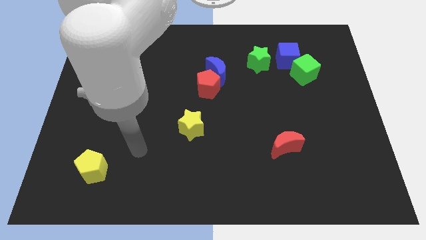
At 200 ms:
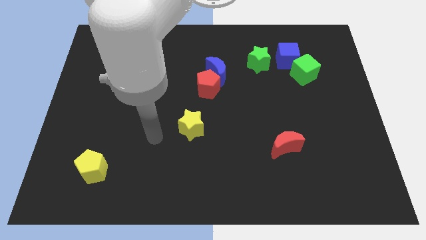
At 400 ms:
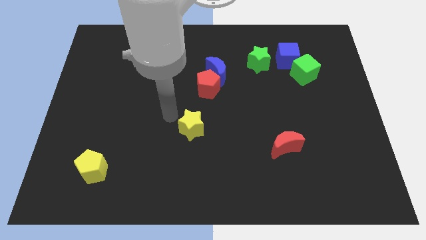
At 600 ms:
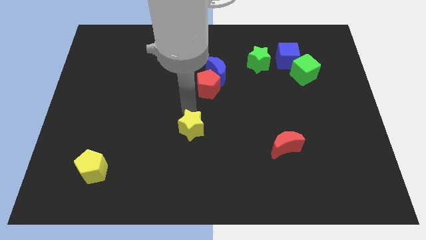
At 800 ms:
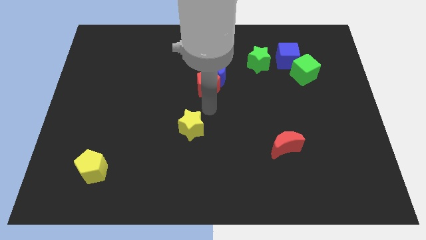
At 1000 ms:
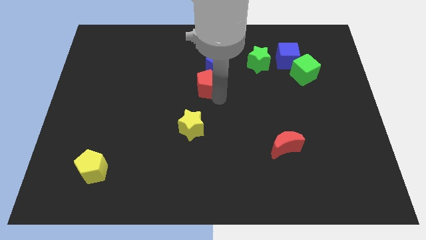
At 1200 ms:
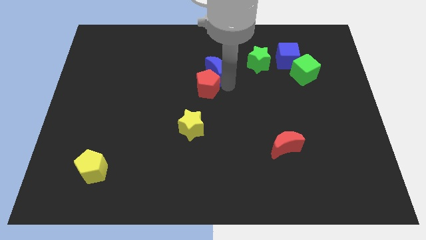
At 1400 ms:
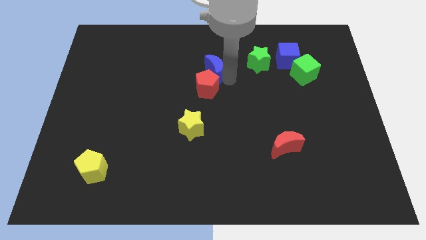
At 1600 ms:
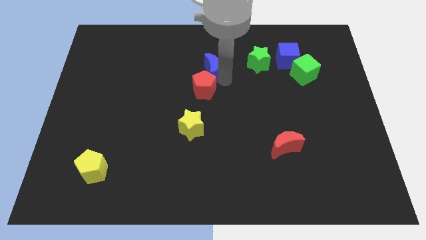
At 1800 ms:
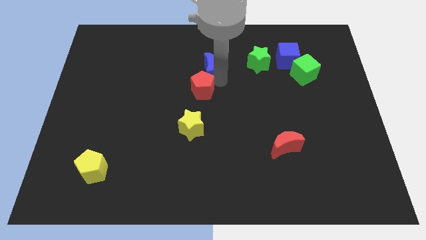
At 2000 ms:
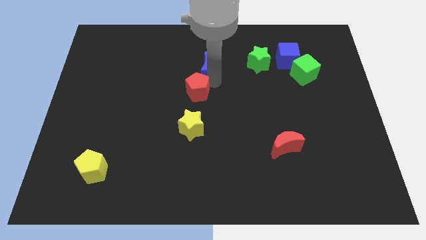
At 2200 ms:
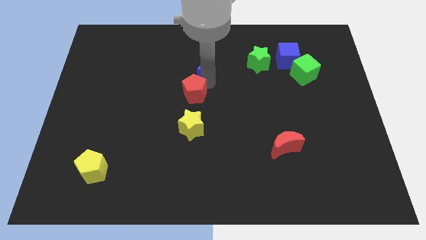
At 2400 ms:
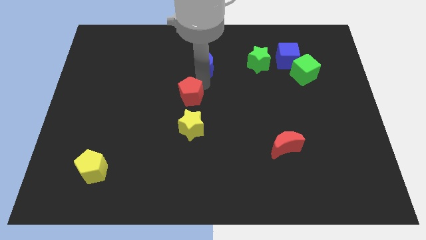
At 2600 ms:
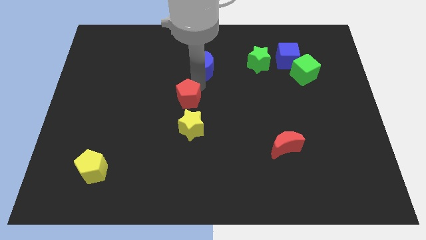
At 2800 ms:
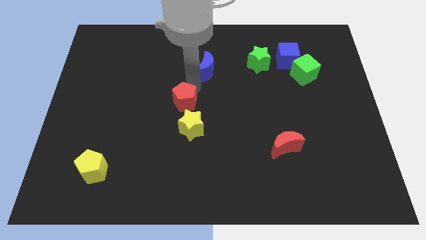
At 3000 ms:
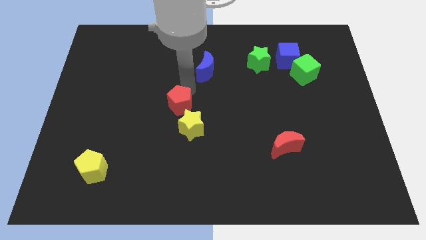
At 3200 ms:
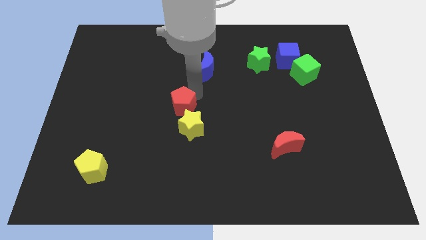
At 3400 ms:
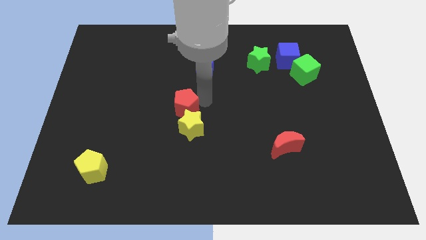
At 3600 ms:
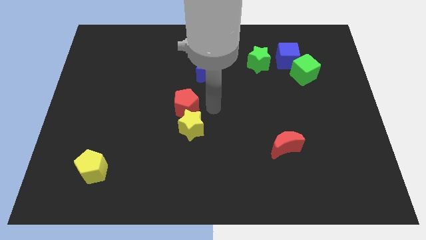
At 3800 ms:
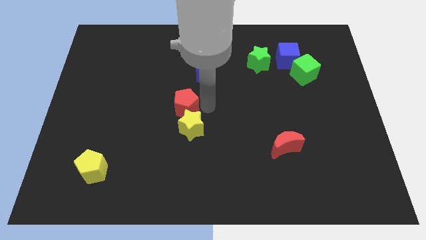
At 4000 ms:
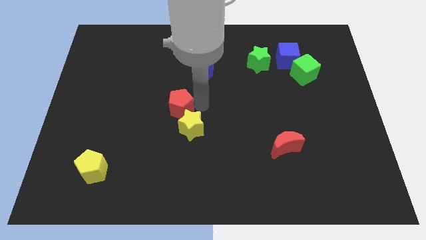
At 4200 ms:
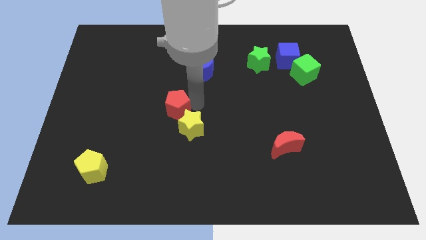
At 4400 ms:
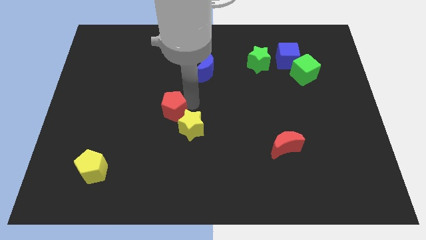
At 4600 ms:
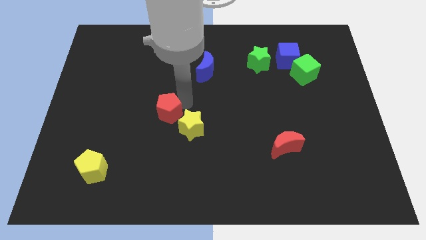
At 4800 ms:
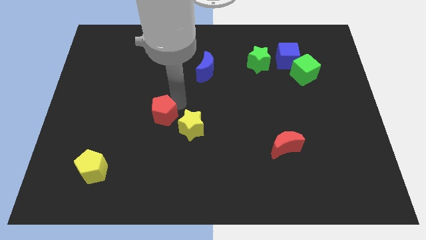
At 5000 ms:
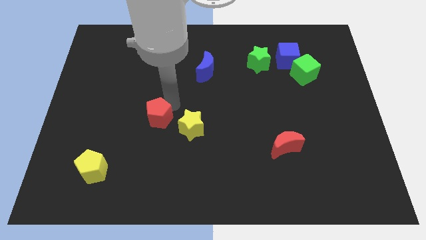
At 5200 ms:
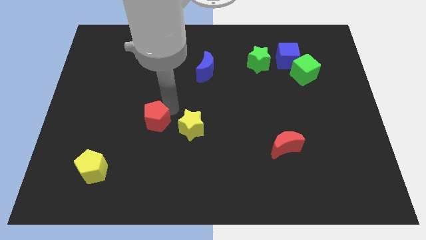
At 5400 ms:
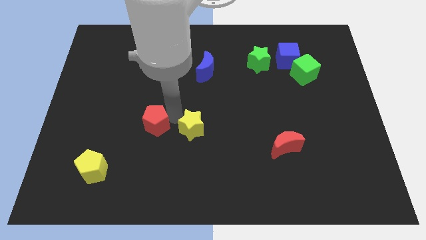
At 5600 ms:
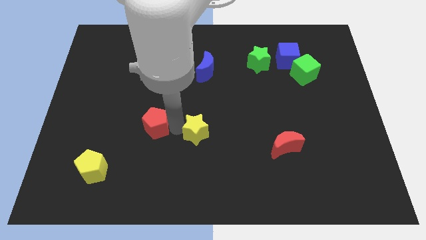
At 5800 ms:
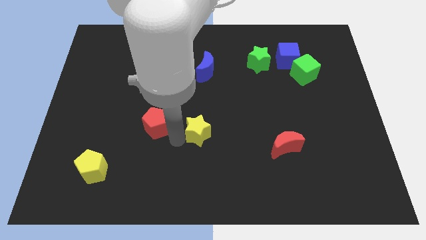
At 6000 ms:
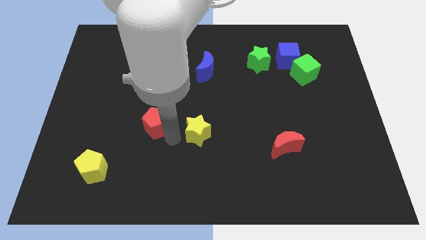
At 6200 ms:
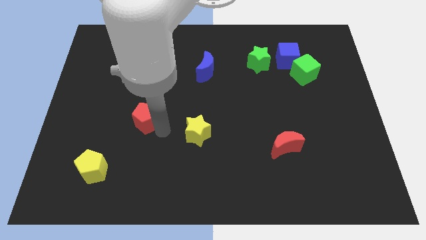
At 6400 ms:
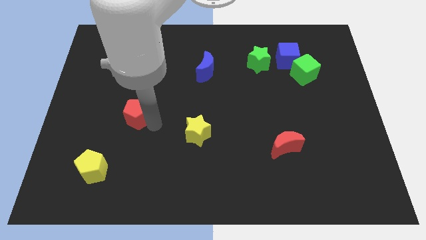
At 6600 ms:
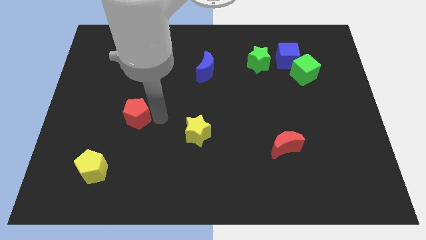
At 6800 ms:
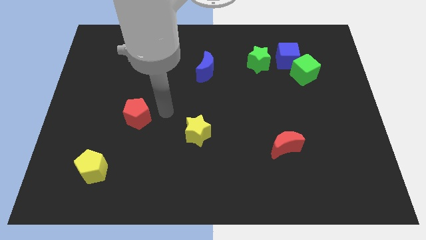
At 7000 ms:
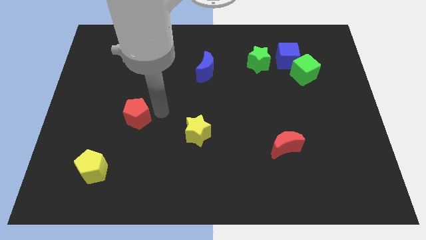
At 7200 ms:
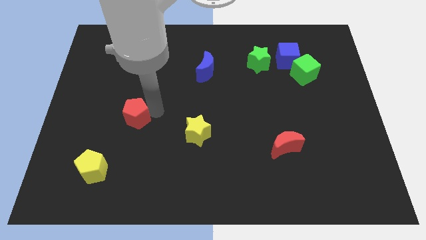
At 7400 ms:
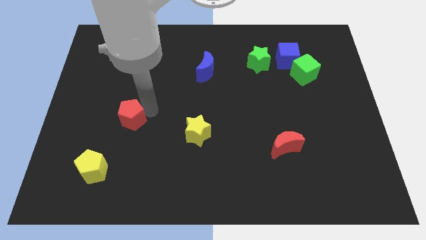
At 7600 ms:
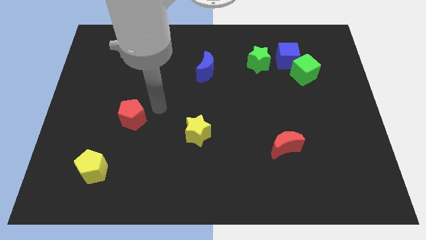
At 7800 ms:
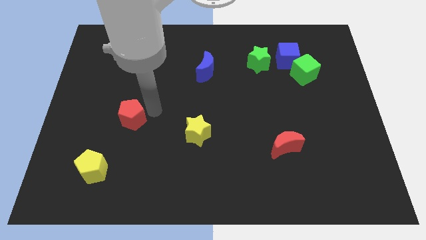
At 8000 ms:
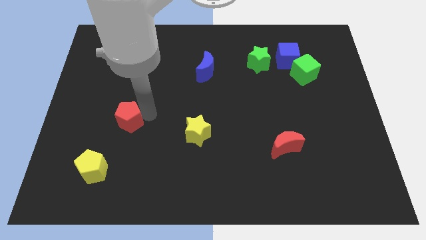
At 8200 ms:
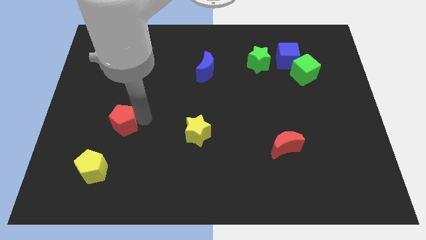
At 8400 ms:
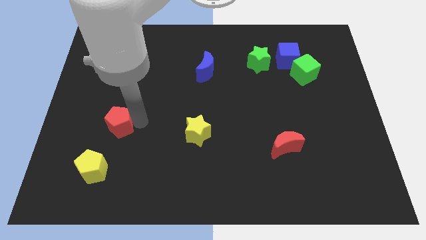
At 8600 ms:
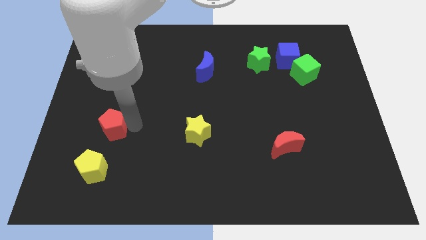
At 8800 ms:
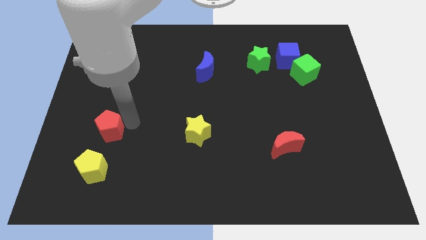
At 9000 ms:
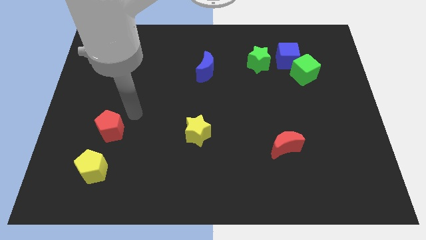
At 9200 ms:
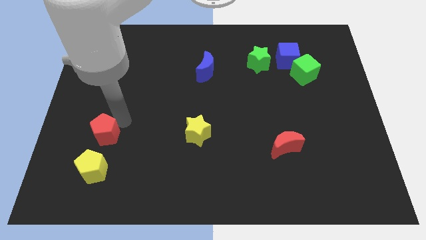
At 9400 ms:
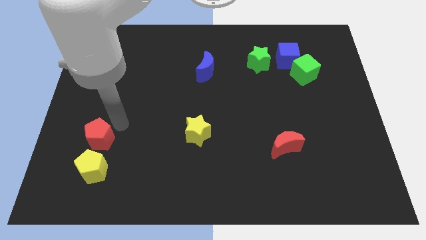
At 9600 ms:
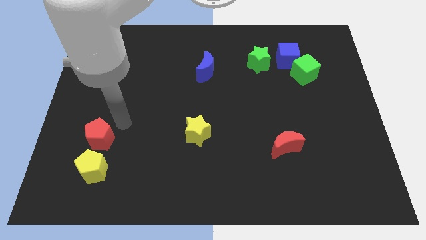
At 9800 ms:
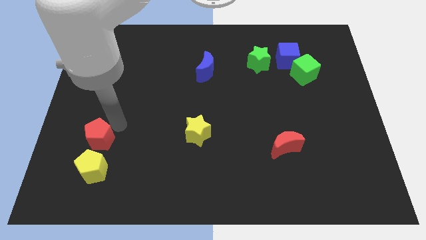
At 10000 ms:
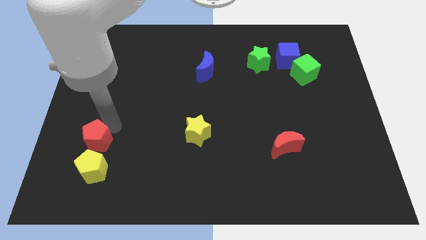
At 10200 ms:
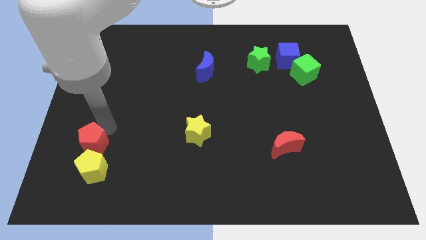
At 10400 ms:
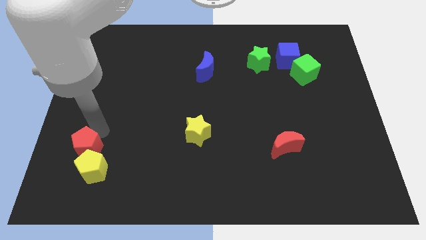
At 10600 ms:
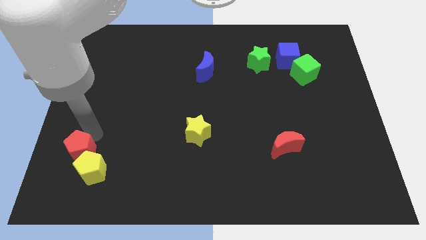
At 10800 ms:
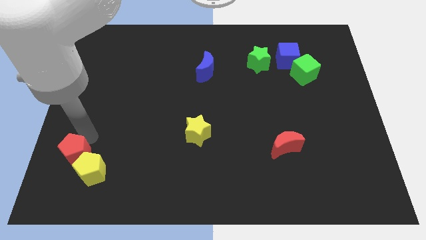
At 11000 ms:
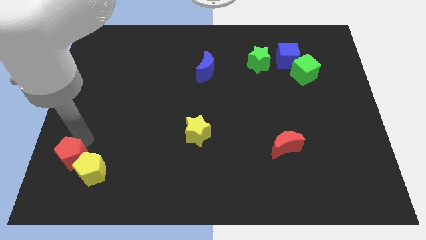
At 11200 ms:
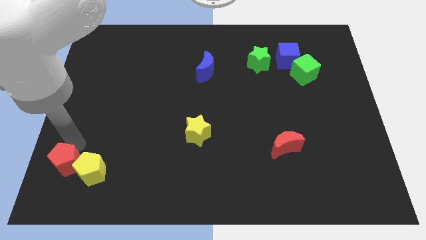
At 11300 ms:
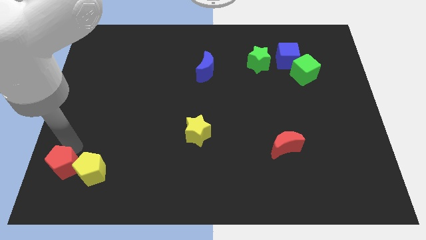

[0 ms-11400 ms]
move the red pentagon to the bottom left corner

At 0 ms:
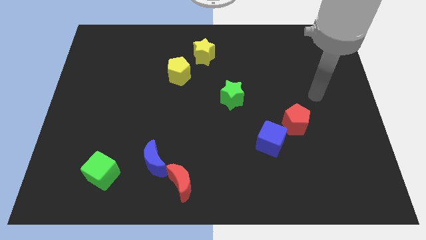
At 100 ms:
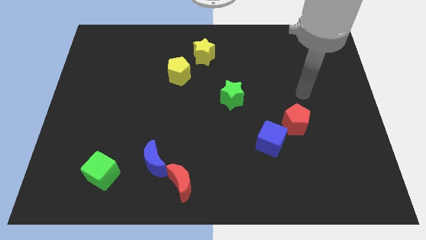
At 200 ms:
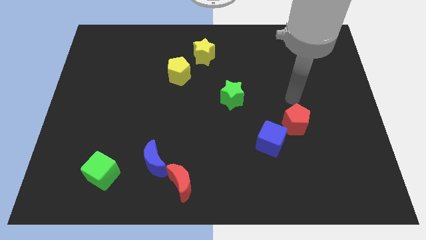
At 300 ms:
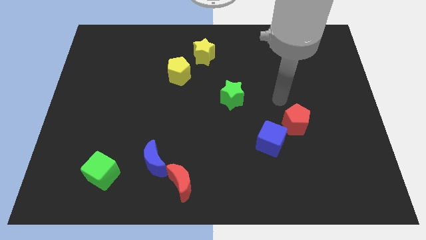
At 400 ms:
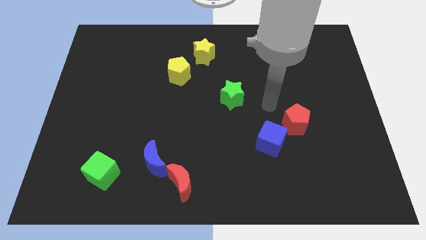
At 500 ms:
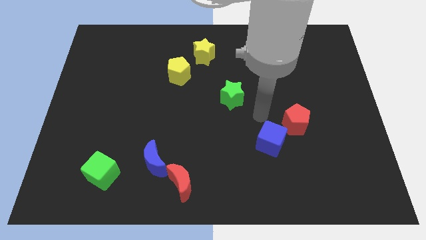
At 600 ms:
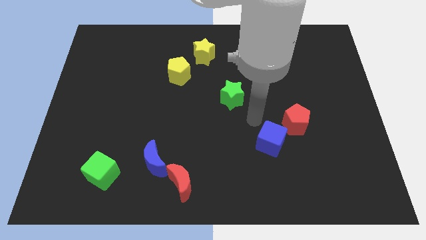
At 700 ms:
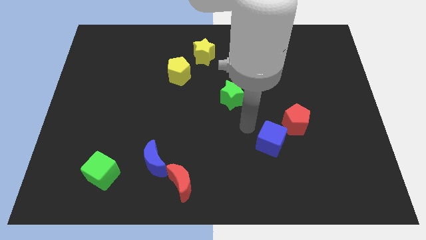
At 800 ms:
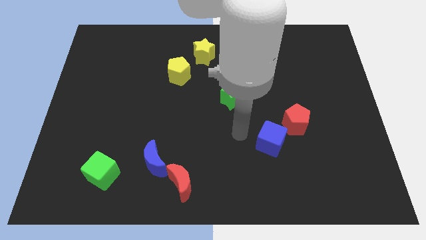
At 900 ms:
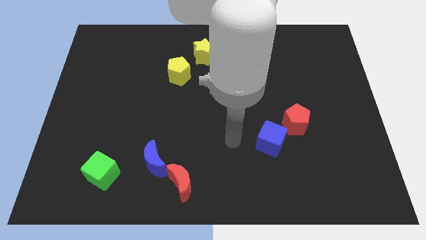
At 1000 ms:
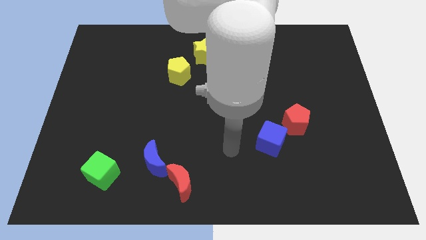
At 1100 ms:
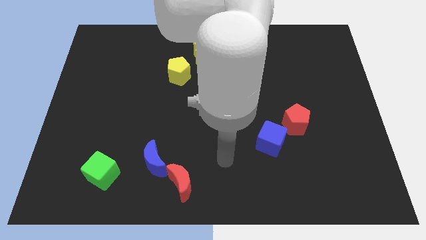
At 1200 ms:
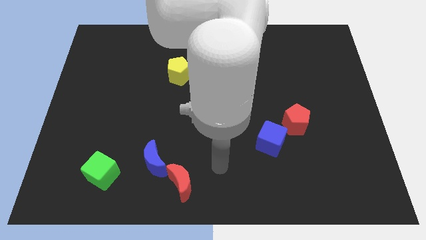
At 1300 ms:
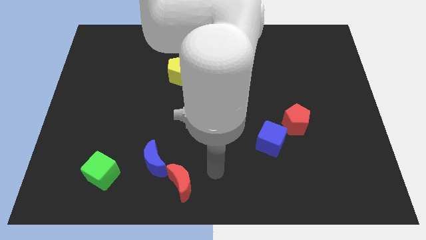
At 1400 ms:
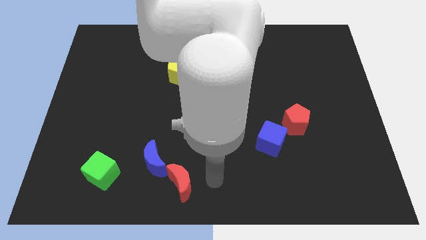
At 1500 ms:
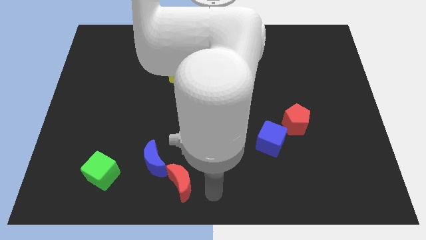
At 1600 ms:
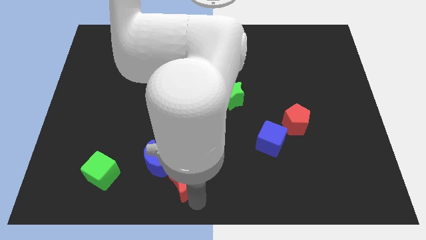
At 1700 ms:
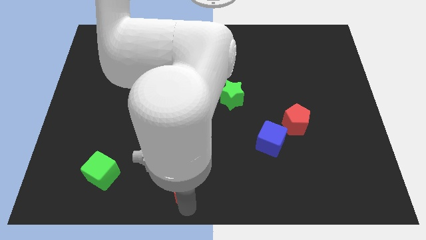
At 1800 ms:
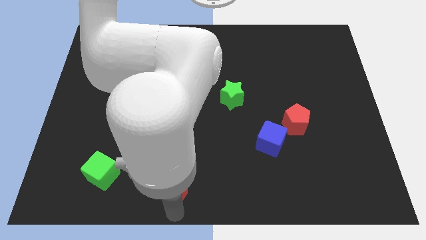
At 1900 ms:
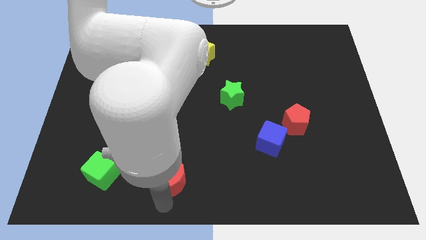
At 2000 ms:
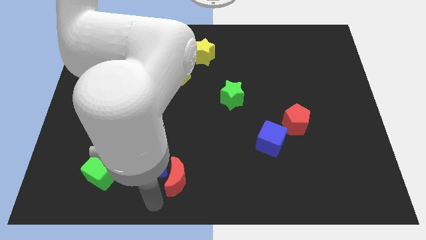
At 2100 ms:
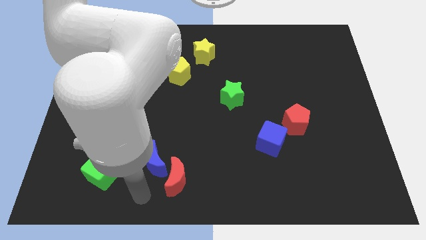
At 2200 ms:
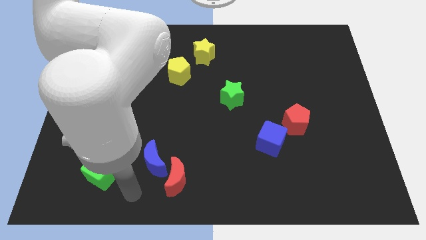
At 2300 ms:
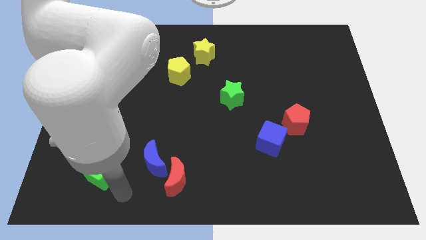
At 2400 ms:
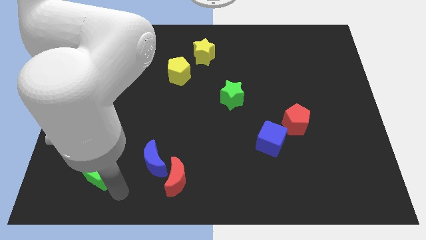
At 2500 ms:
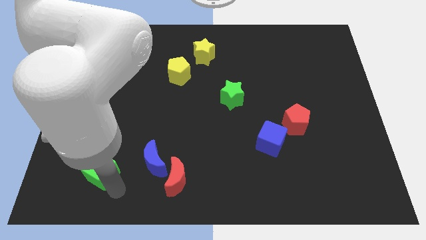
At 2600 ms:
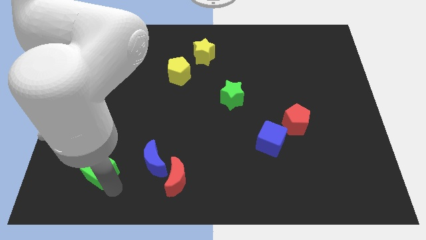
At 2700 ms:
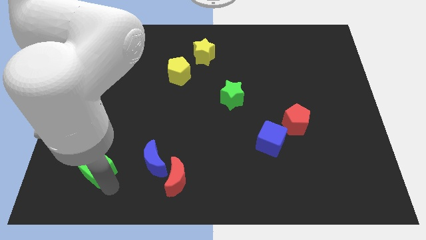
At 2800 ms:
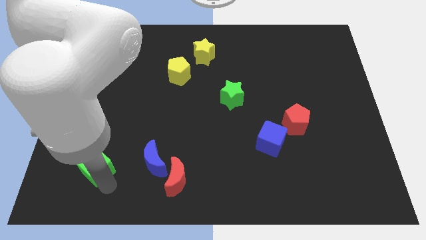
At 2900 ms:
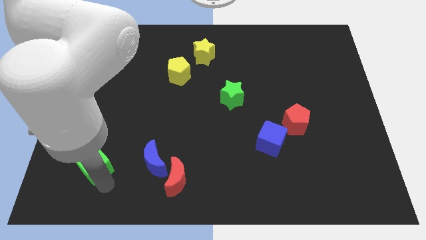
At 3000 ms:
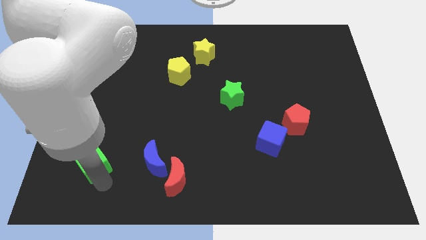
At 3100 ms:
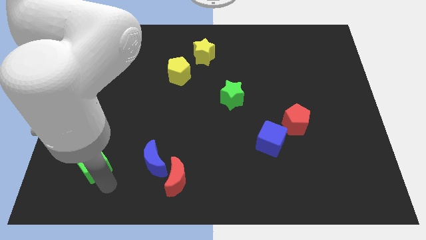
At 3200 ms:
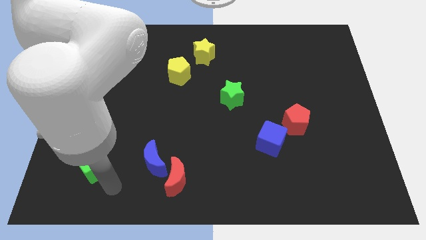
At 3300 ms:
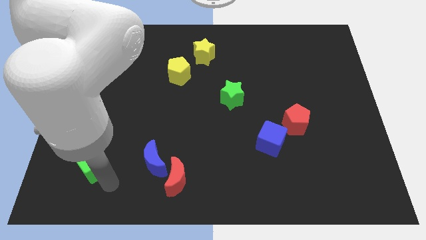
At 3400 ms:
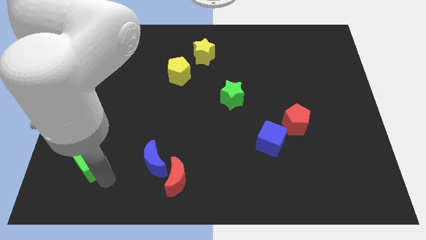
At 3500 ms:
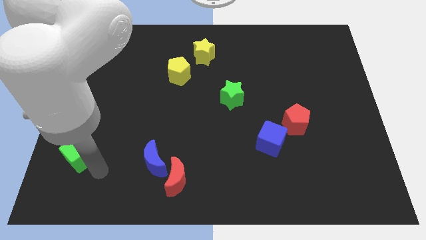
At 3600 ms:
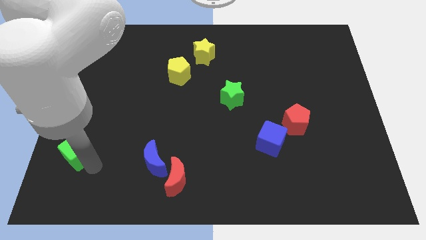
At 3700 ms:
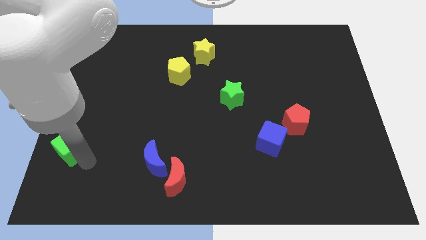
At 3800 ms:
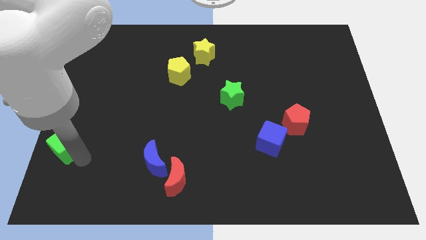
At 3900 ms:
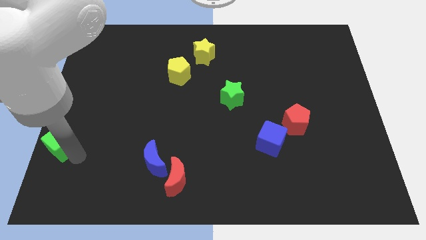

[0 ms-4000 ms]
move the green cube to the left side of the board
